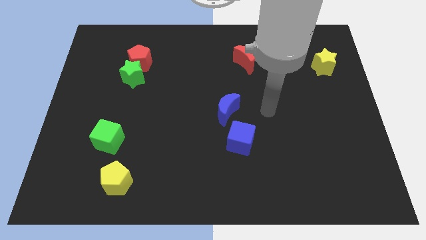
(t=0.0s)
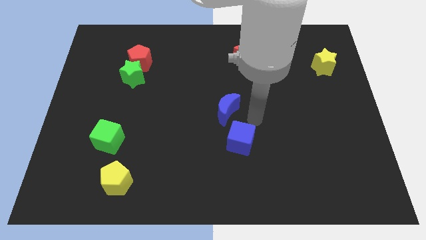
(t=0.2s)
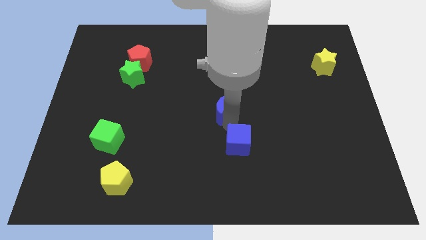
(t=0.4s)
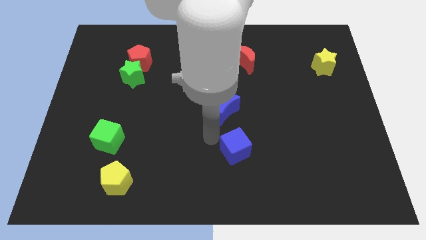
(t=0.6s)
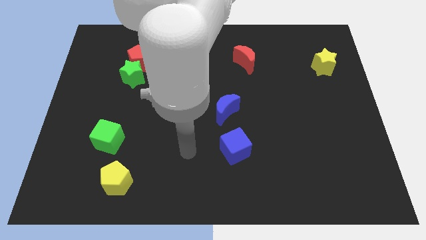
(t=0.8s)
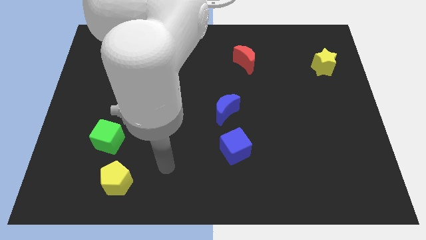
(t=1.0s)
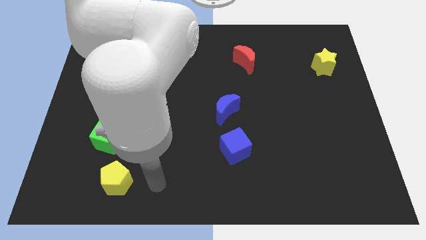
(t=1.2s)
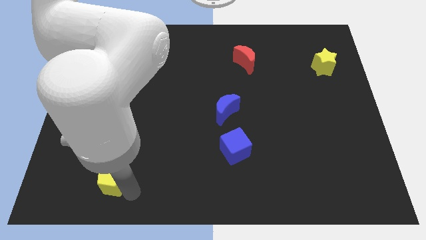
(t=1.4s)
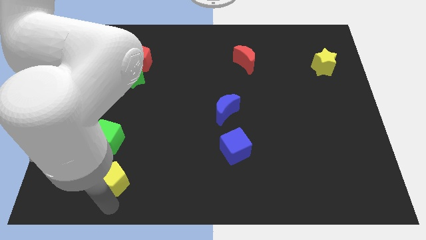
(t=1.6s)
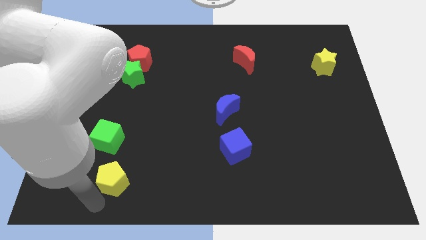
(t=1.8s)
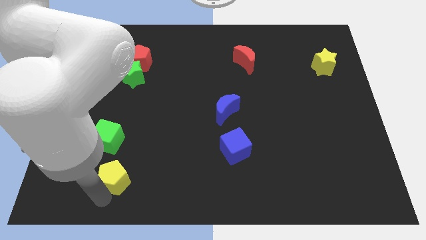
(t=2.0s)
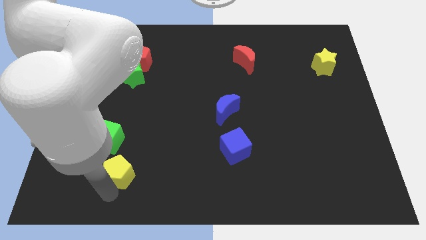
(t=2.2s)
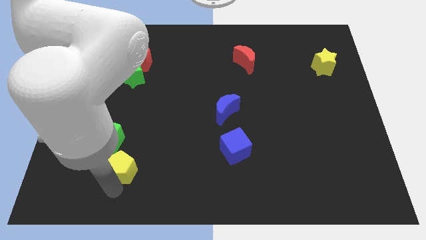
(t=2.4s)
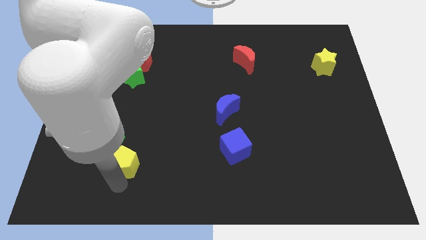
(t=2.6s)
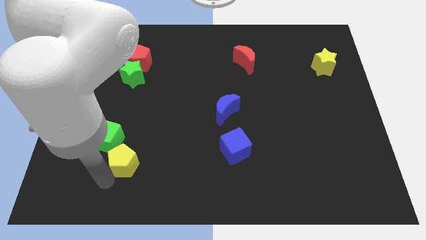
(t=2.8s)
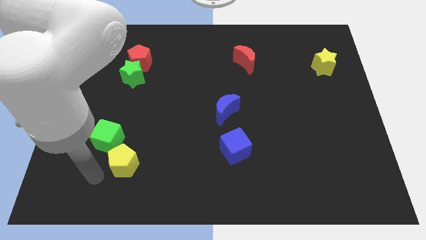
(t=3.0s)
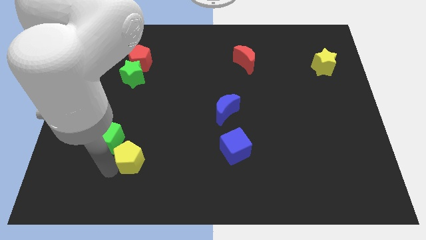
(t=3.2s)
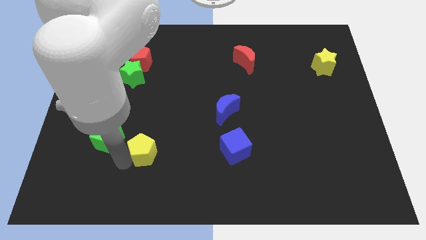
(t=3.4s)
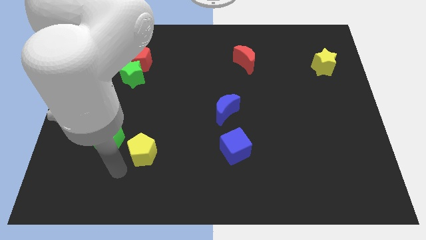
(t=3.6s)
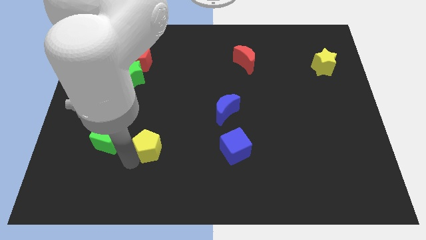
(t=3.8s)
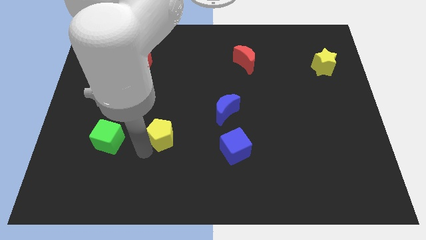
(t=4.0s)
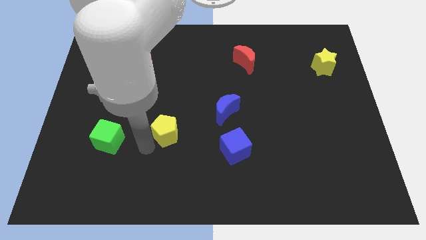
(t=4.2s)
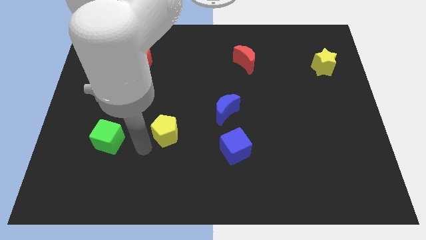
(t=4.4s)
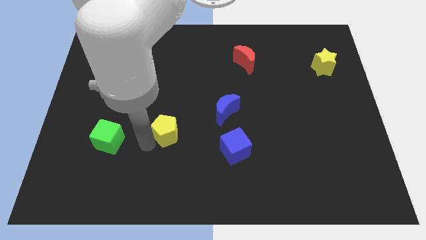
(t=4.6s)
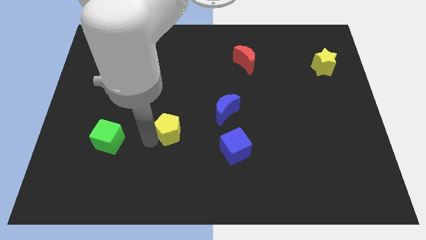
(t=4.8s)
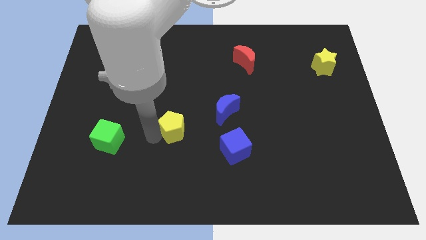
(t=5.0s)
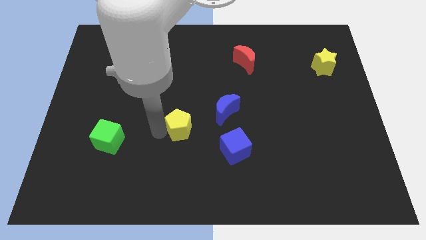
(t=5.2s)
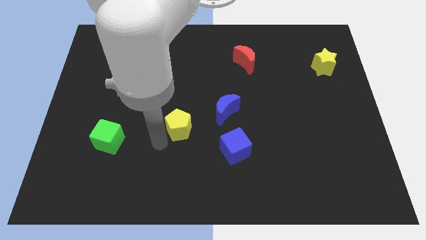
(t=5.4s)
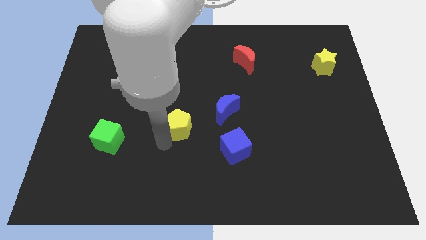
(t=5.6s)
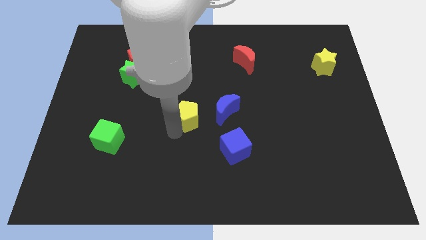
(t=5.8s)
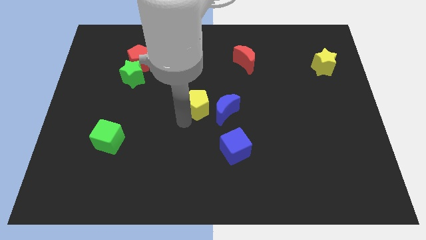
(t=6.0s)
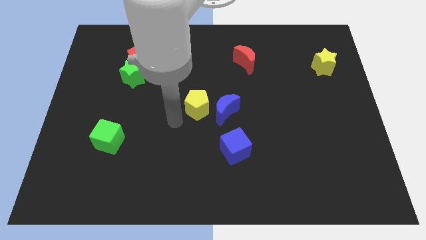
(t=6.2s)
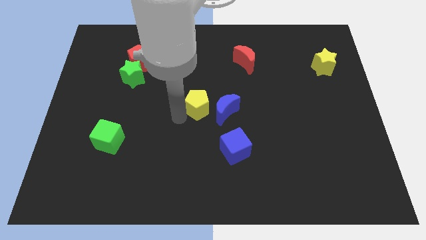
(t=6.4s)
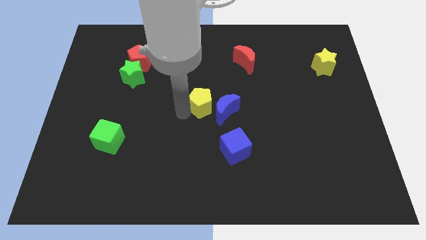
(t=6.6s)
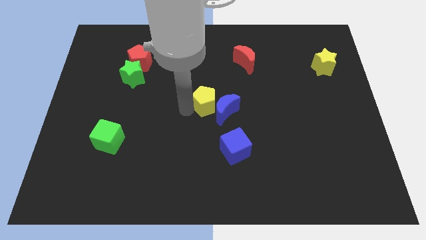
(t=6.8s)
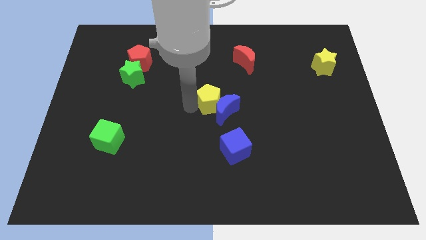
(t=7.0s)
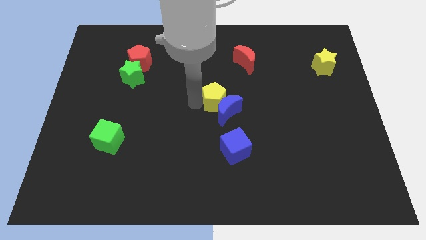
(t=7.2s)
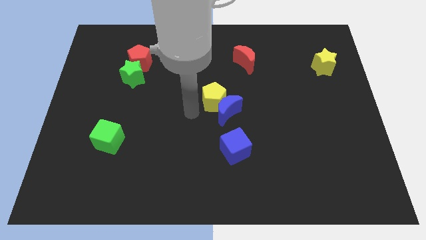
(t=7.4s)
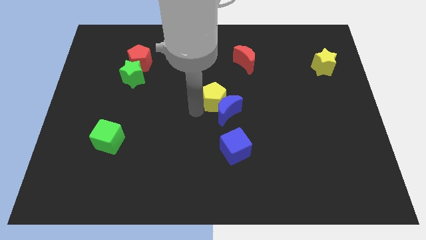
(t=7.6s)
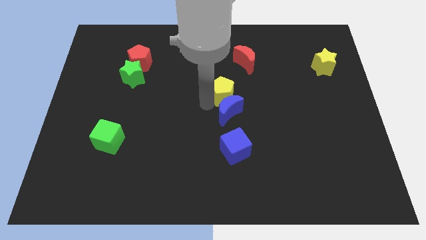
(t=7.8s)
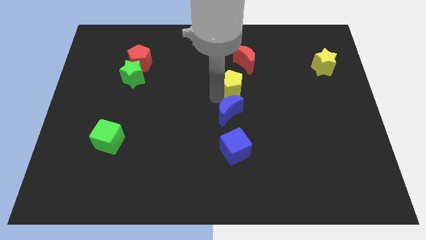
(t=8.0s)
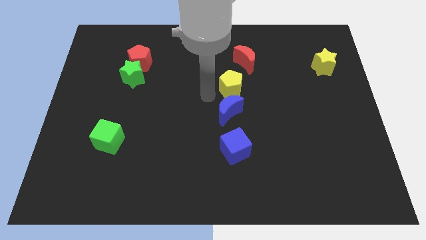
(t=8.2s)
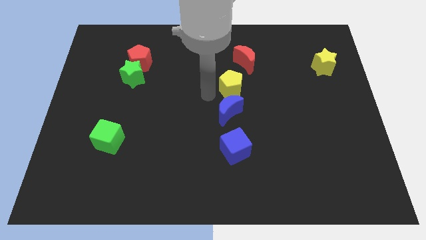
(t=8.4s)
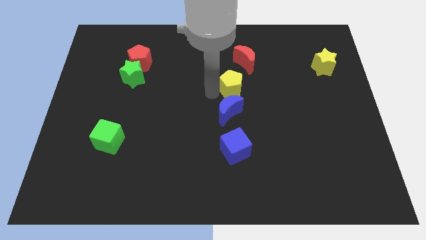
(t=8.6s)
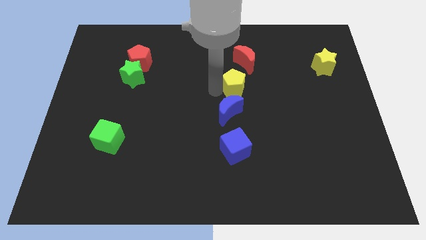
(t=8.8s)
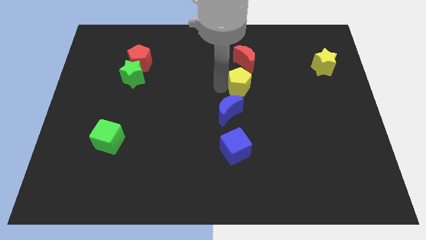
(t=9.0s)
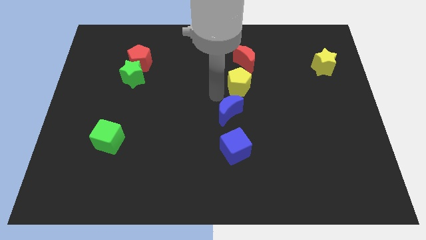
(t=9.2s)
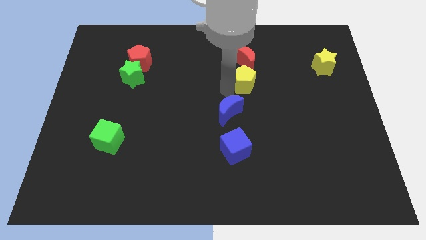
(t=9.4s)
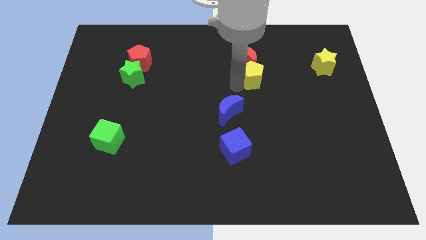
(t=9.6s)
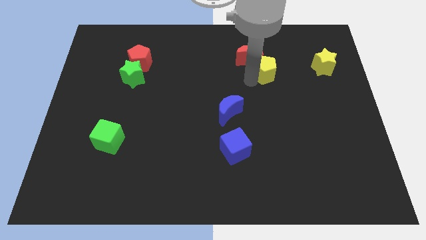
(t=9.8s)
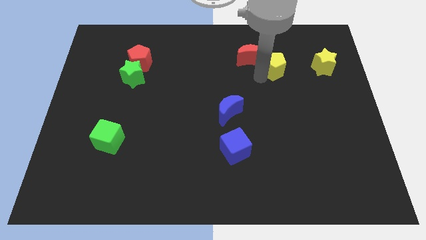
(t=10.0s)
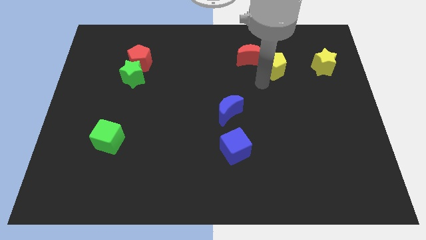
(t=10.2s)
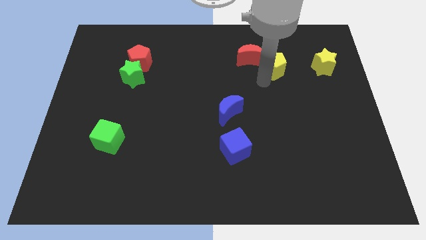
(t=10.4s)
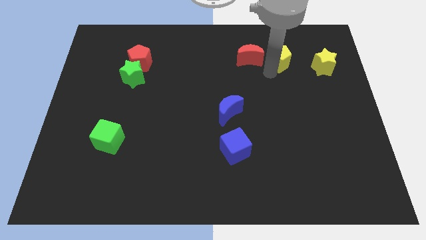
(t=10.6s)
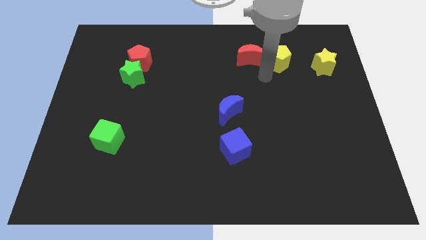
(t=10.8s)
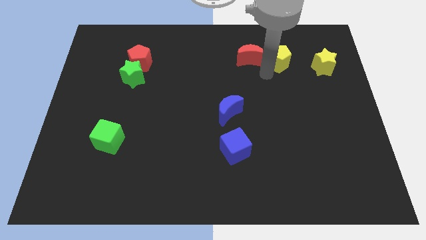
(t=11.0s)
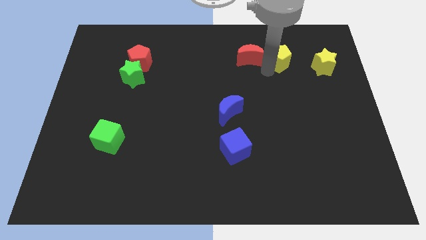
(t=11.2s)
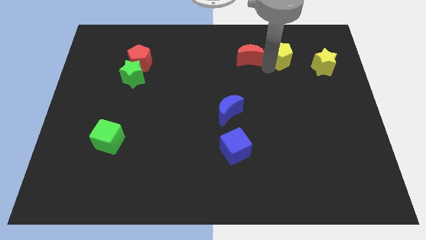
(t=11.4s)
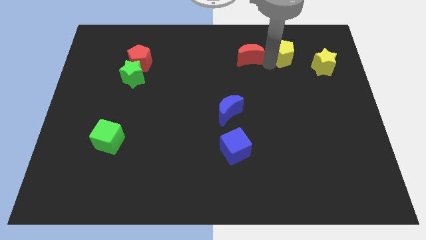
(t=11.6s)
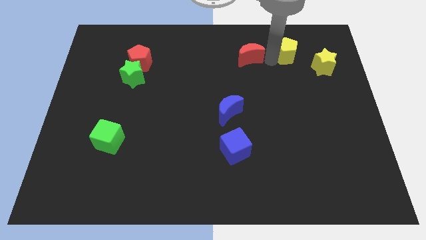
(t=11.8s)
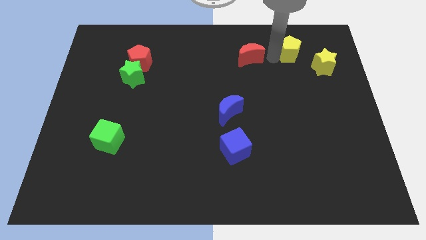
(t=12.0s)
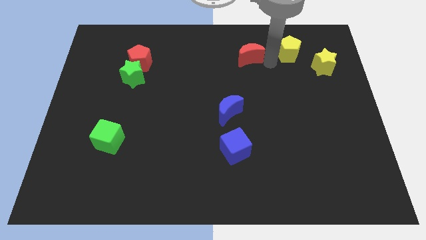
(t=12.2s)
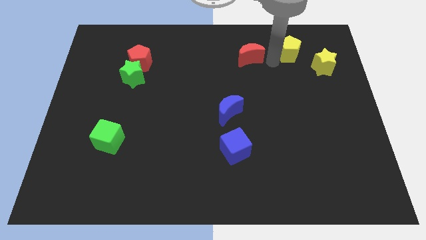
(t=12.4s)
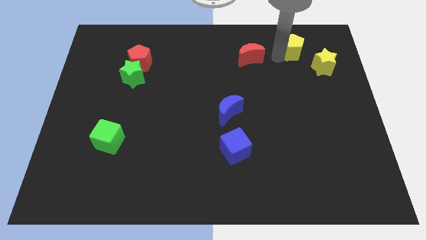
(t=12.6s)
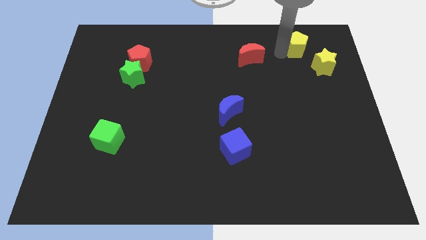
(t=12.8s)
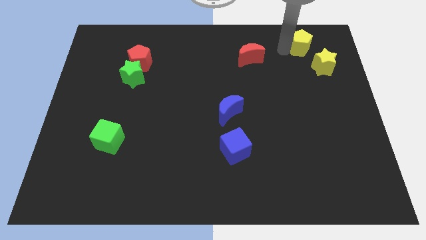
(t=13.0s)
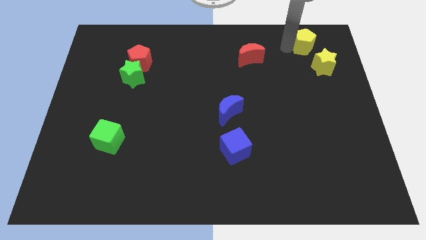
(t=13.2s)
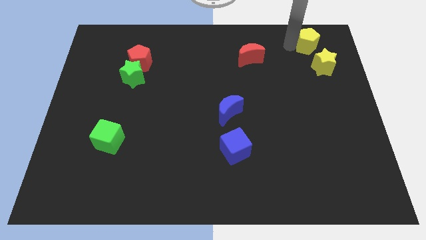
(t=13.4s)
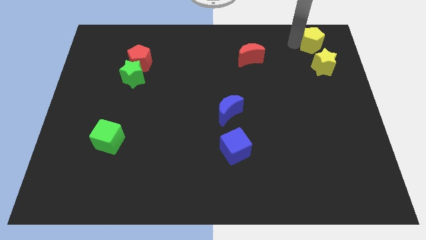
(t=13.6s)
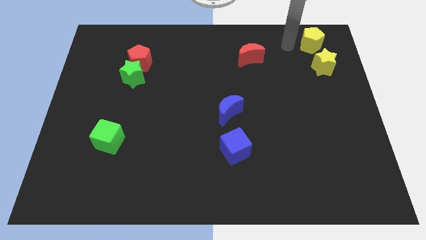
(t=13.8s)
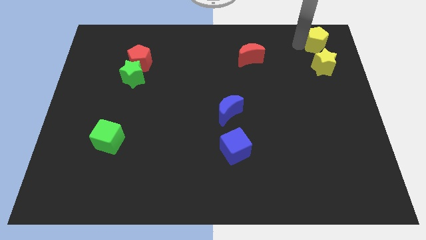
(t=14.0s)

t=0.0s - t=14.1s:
slide the yellow pentagon to the top right of the board
